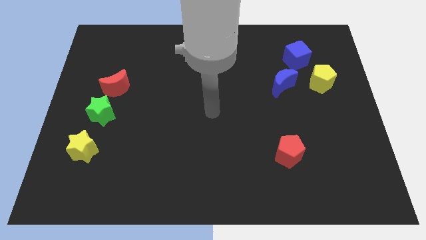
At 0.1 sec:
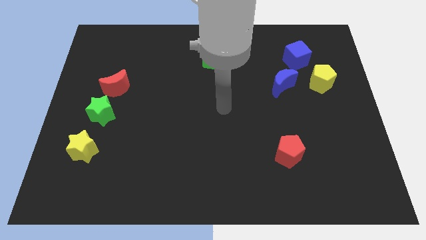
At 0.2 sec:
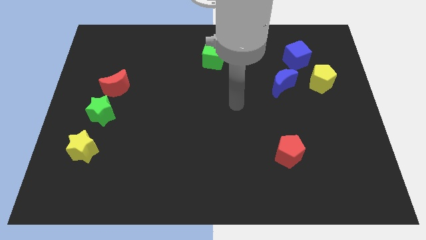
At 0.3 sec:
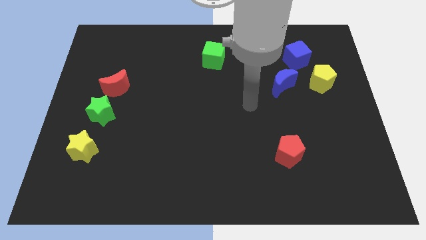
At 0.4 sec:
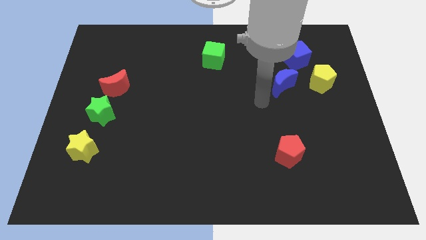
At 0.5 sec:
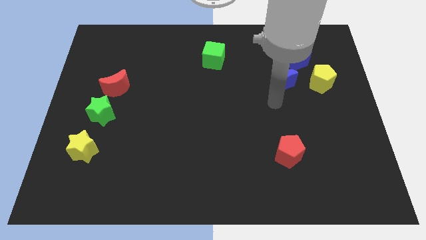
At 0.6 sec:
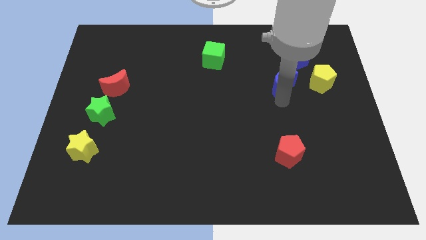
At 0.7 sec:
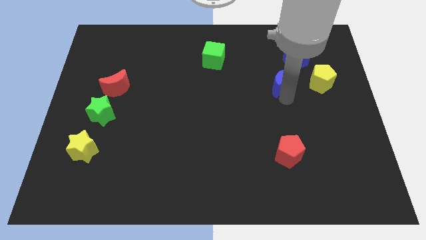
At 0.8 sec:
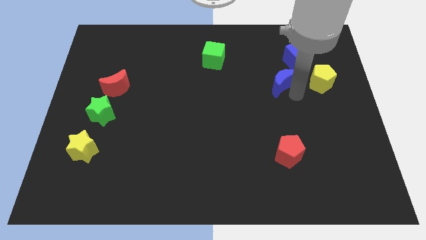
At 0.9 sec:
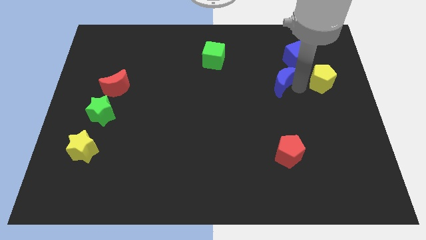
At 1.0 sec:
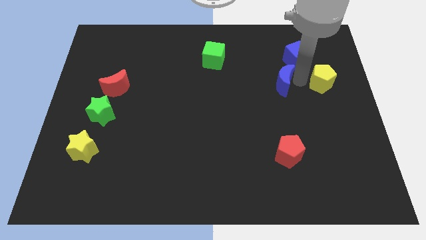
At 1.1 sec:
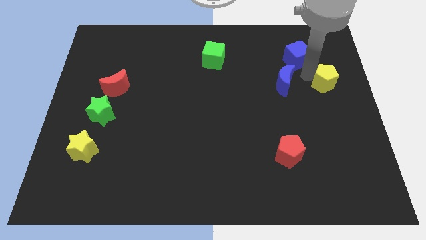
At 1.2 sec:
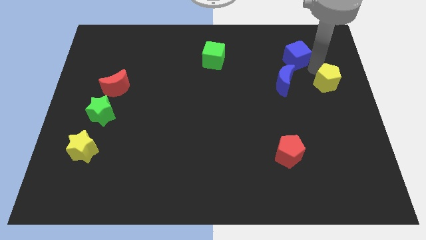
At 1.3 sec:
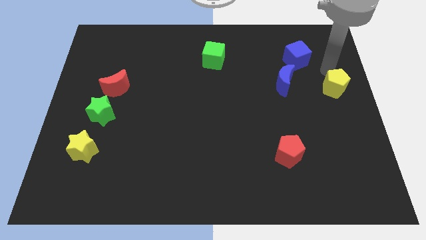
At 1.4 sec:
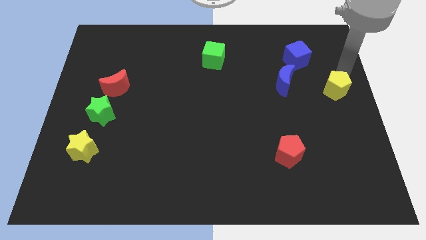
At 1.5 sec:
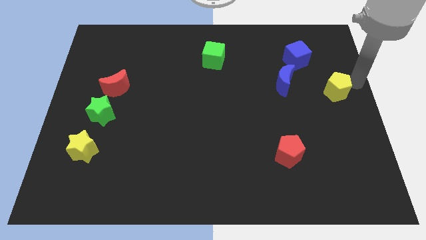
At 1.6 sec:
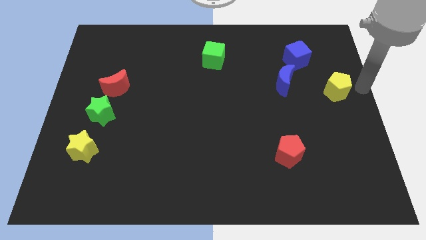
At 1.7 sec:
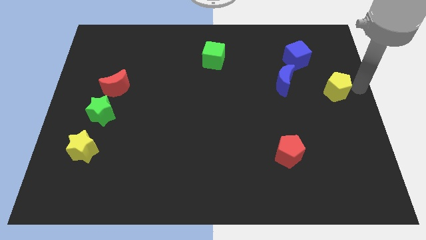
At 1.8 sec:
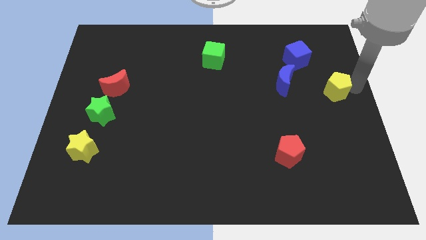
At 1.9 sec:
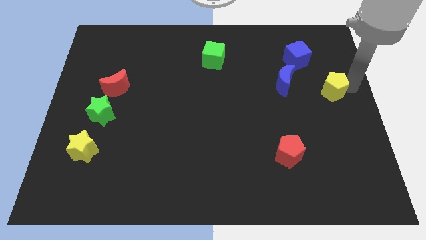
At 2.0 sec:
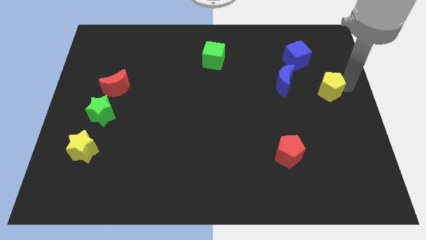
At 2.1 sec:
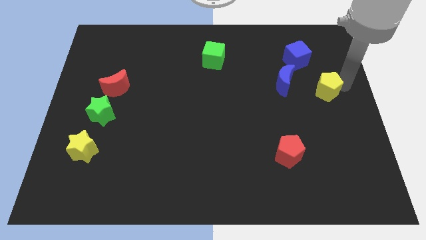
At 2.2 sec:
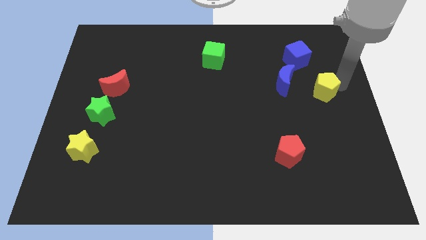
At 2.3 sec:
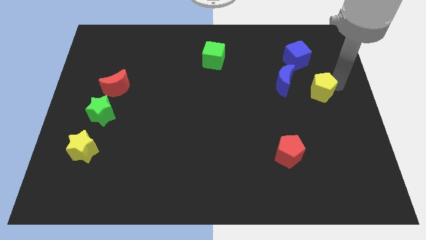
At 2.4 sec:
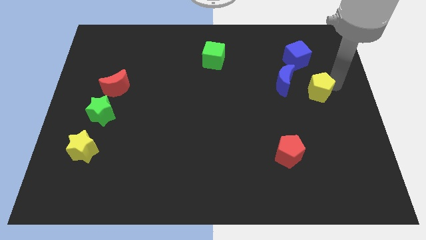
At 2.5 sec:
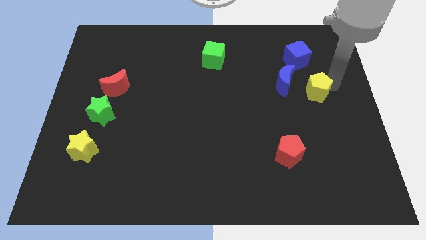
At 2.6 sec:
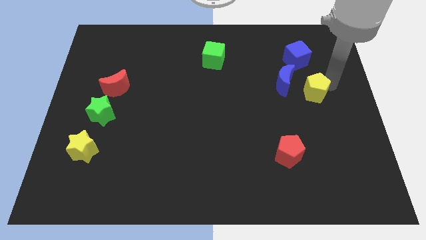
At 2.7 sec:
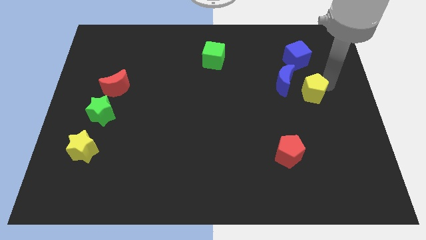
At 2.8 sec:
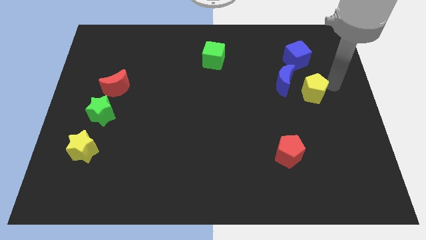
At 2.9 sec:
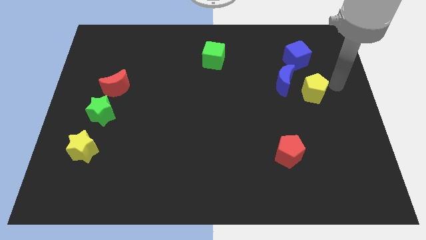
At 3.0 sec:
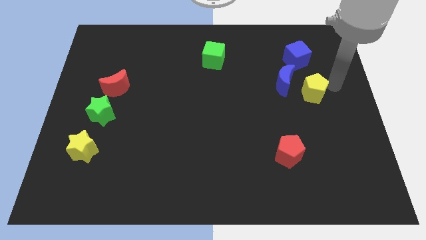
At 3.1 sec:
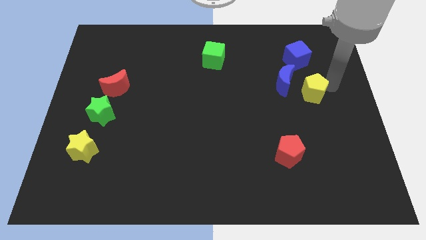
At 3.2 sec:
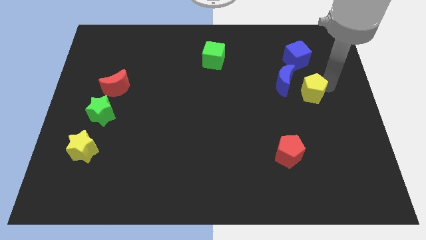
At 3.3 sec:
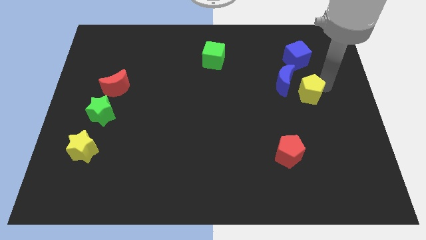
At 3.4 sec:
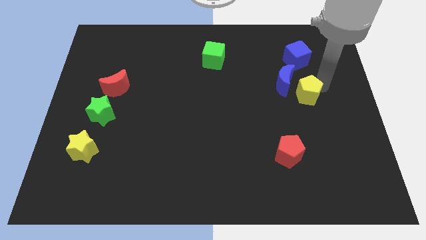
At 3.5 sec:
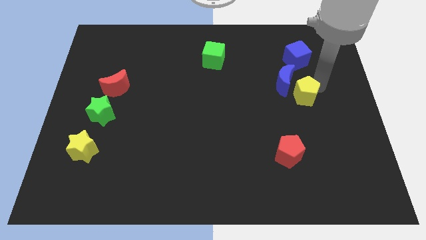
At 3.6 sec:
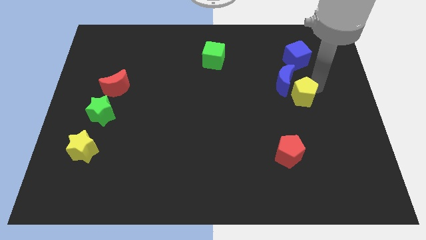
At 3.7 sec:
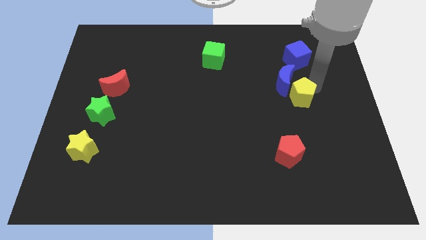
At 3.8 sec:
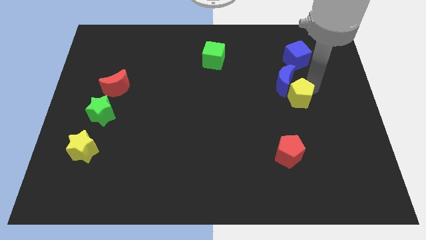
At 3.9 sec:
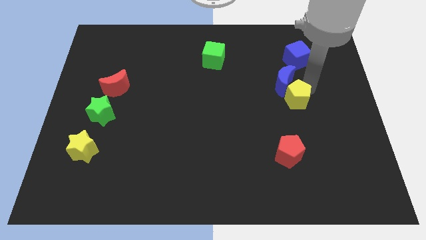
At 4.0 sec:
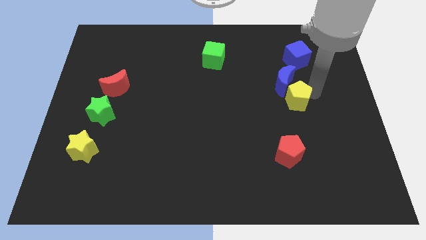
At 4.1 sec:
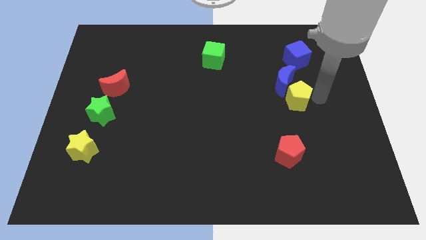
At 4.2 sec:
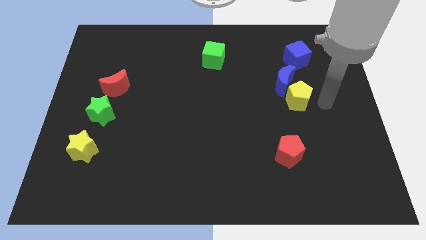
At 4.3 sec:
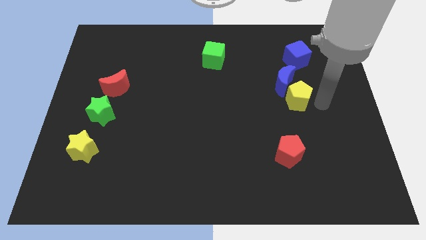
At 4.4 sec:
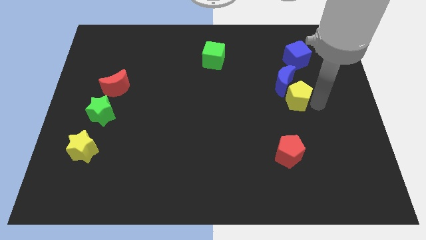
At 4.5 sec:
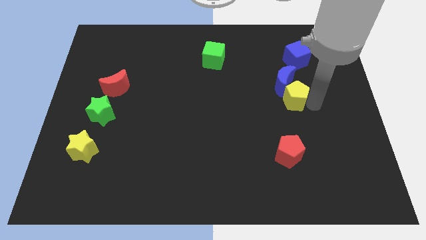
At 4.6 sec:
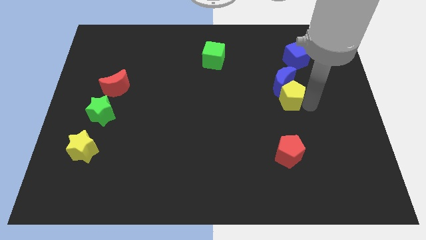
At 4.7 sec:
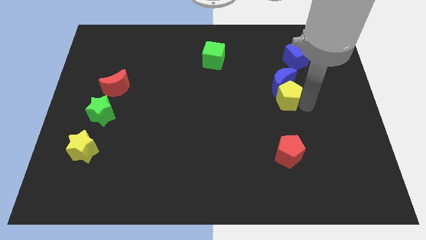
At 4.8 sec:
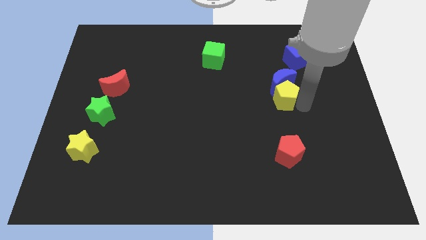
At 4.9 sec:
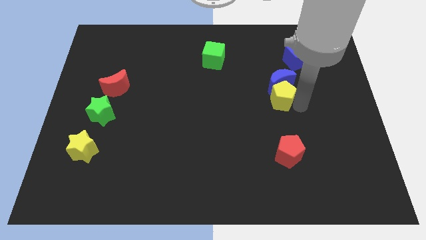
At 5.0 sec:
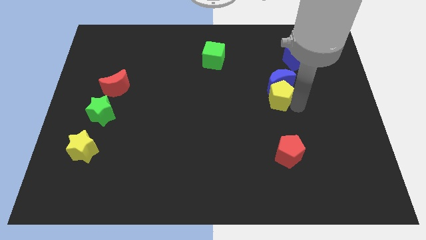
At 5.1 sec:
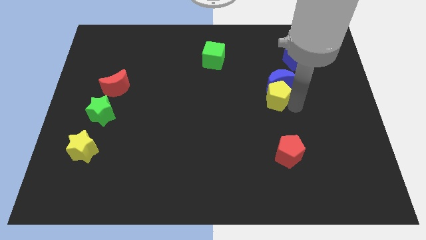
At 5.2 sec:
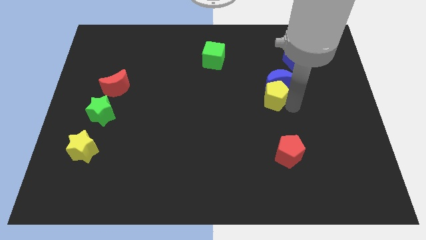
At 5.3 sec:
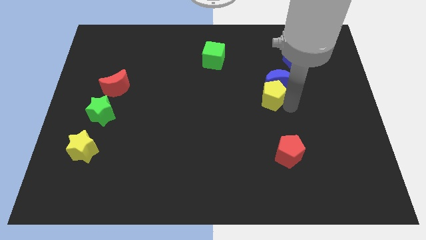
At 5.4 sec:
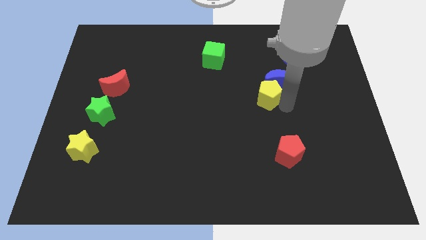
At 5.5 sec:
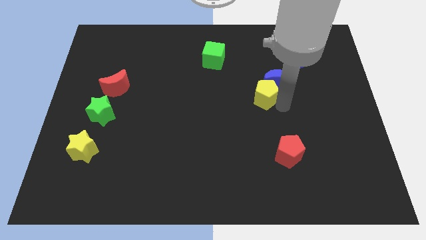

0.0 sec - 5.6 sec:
put the yellow pentagon to the middle

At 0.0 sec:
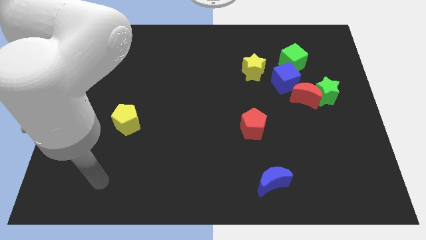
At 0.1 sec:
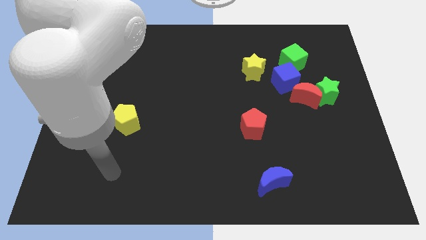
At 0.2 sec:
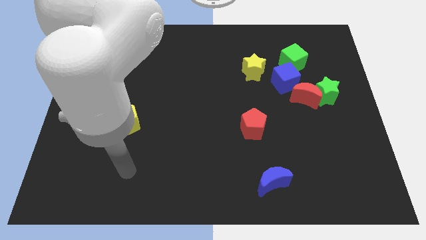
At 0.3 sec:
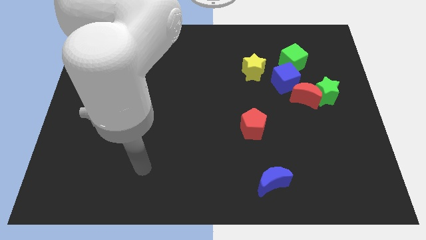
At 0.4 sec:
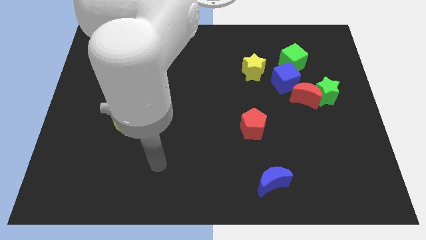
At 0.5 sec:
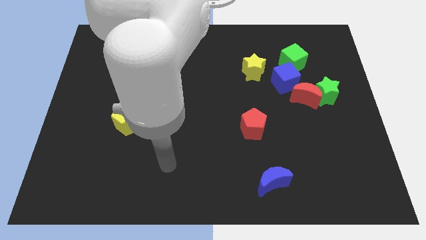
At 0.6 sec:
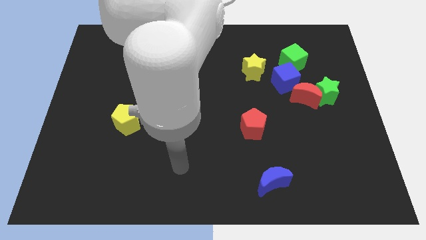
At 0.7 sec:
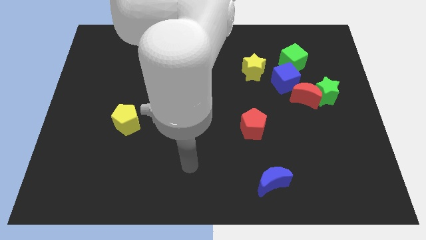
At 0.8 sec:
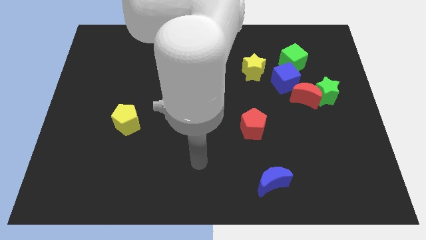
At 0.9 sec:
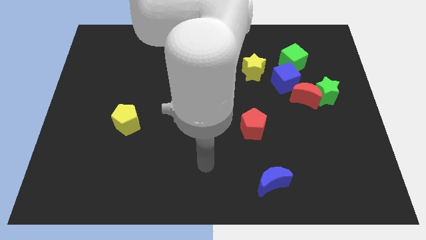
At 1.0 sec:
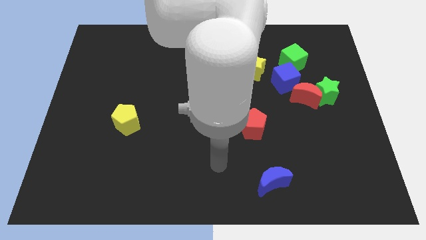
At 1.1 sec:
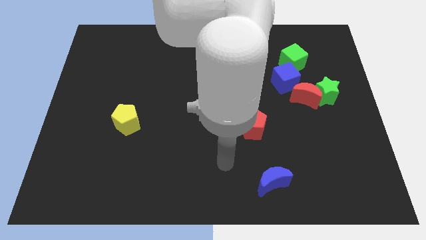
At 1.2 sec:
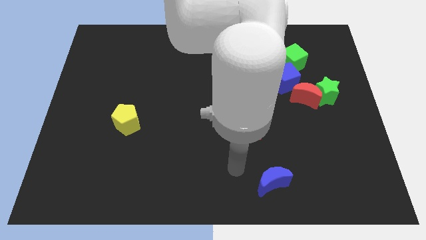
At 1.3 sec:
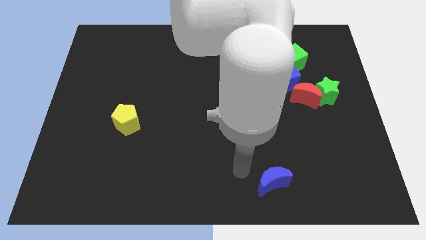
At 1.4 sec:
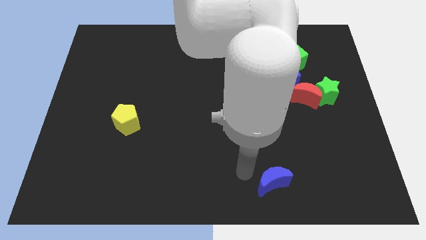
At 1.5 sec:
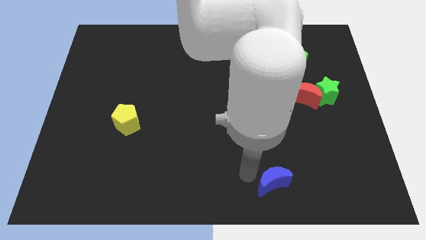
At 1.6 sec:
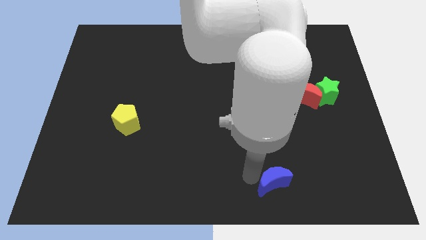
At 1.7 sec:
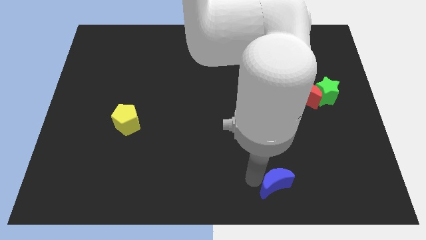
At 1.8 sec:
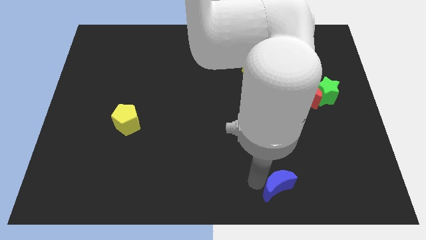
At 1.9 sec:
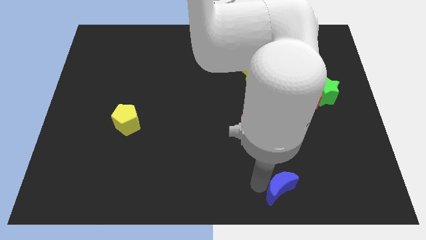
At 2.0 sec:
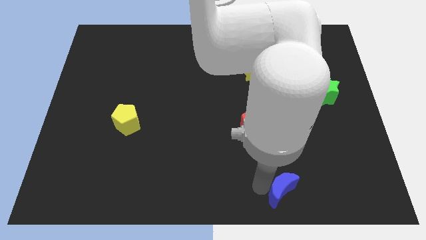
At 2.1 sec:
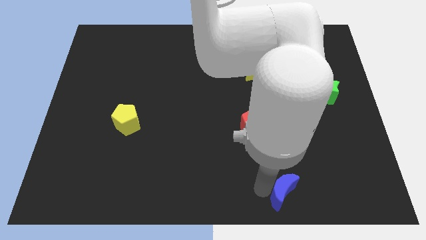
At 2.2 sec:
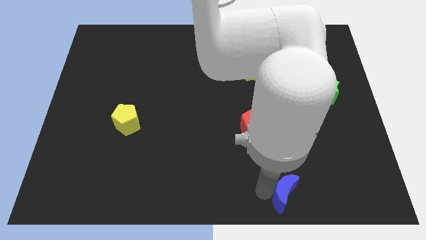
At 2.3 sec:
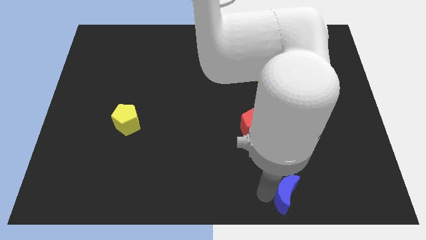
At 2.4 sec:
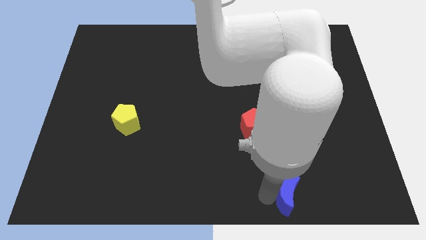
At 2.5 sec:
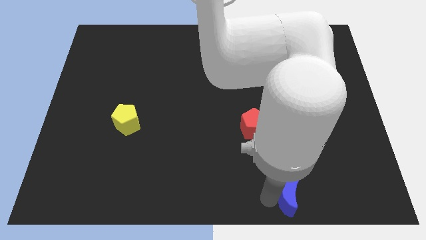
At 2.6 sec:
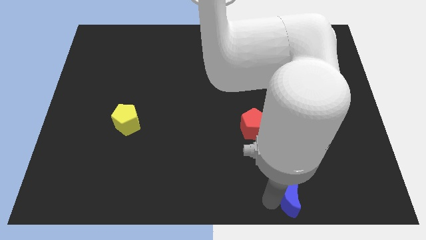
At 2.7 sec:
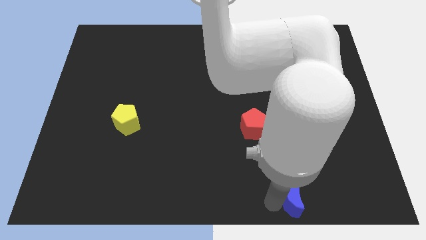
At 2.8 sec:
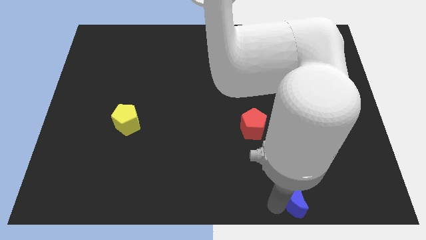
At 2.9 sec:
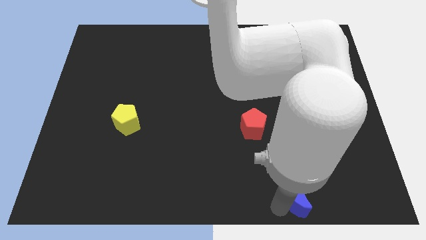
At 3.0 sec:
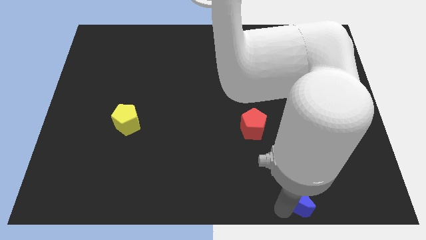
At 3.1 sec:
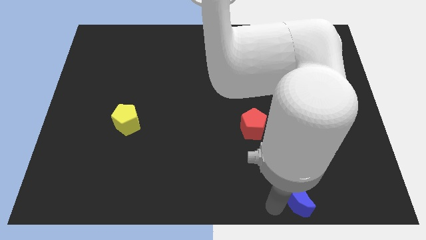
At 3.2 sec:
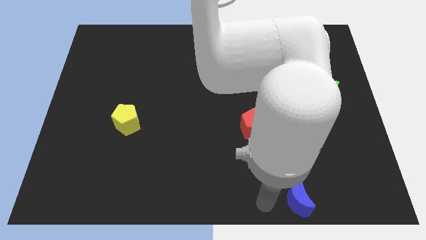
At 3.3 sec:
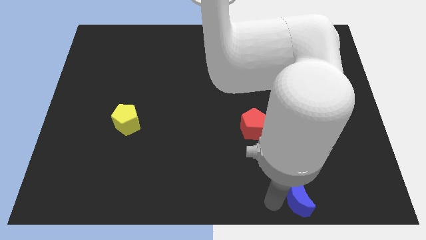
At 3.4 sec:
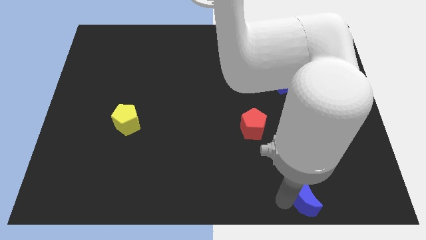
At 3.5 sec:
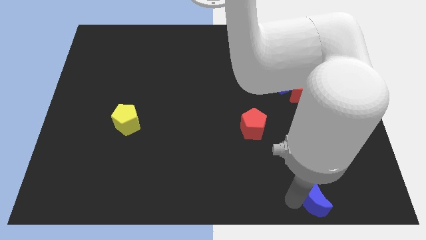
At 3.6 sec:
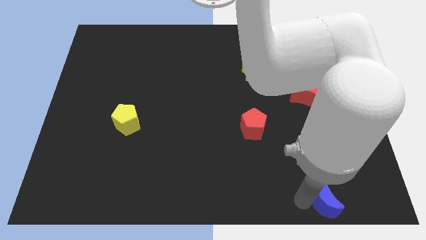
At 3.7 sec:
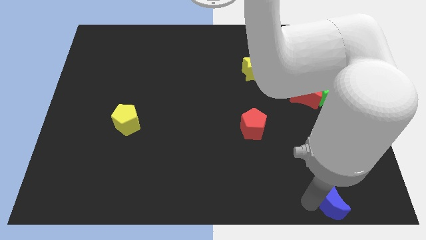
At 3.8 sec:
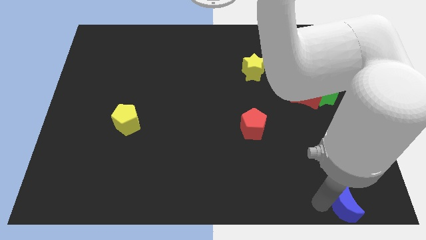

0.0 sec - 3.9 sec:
put the blue moon to the bottom right of the board
